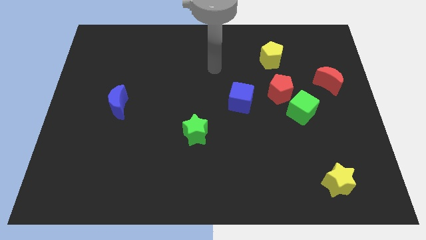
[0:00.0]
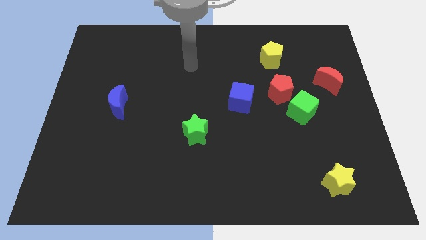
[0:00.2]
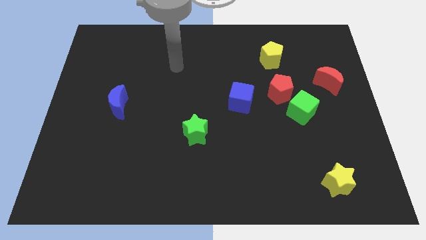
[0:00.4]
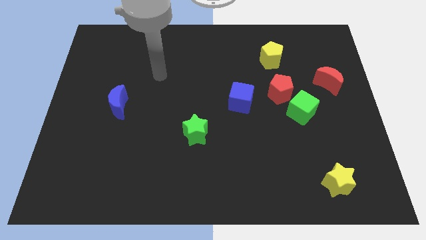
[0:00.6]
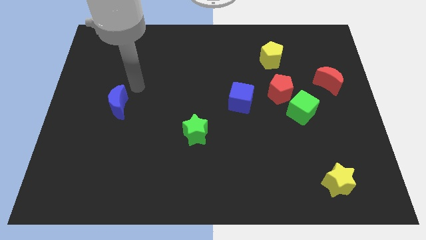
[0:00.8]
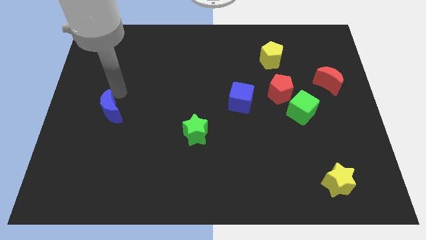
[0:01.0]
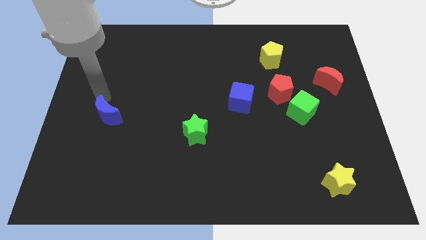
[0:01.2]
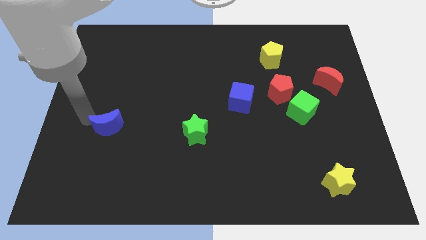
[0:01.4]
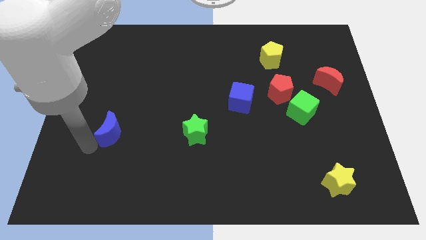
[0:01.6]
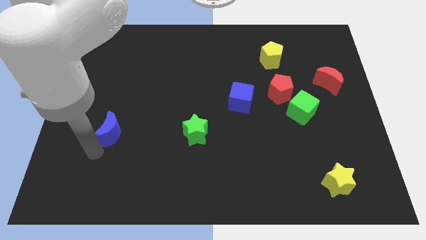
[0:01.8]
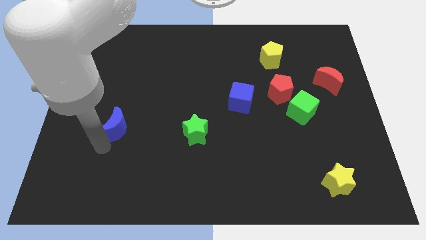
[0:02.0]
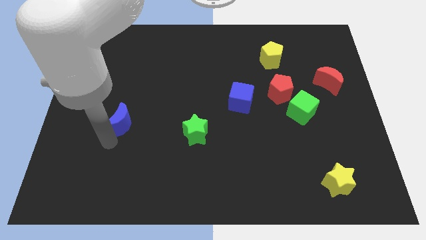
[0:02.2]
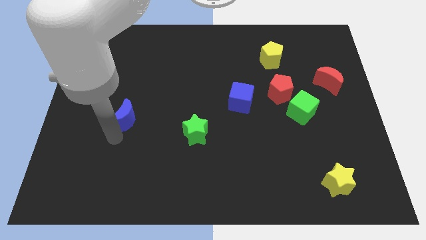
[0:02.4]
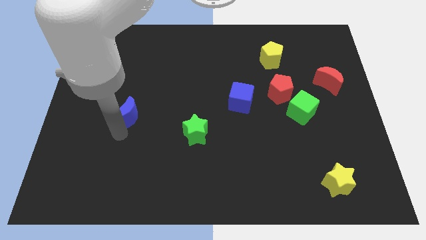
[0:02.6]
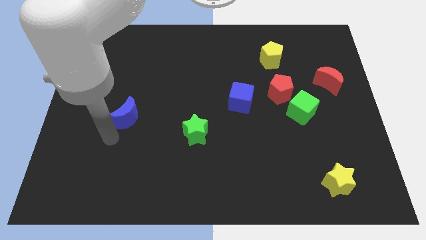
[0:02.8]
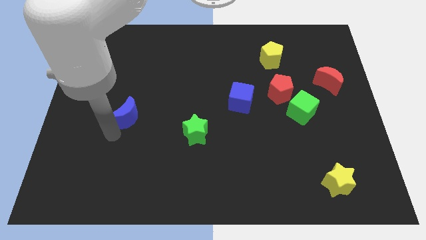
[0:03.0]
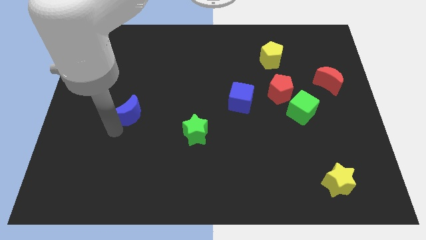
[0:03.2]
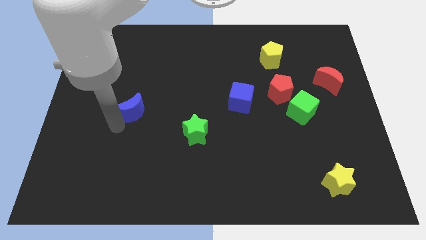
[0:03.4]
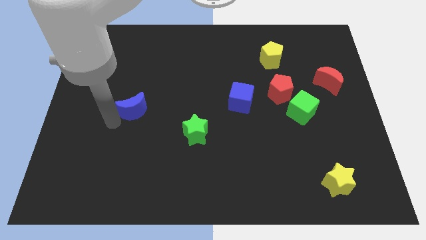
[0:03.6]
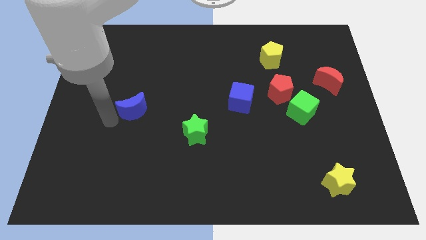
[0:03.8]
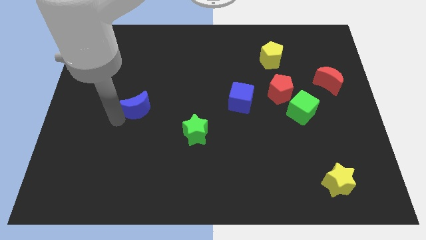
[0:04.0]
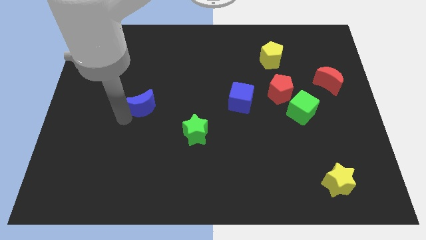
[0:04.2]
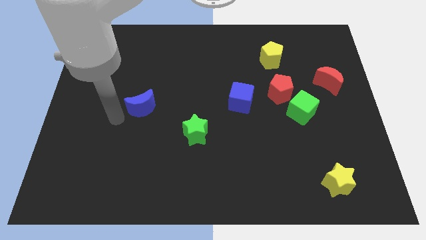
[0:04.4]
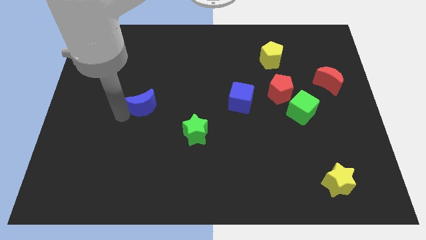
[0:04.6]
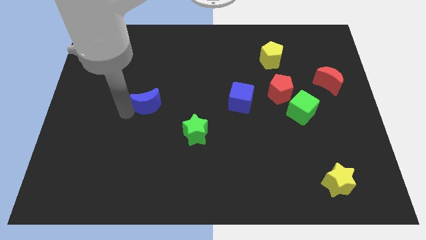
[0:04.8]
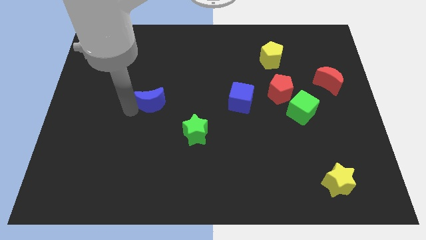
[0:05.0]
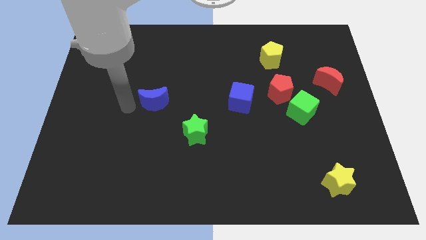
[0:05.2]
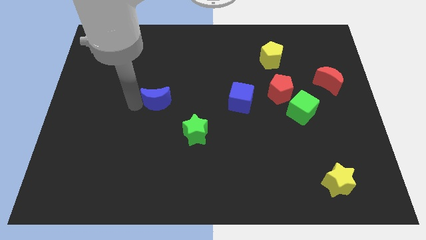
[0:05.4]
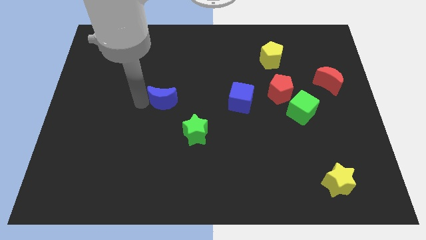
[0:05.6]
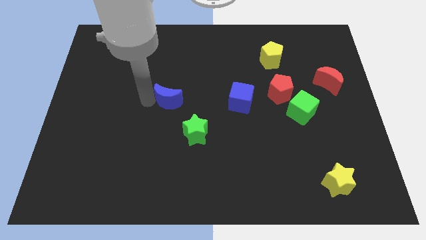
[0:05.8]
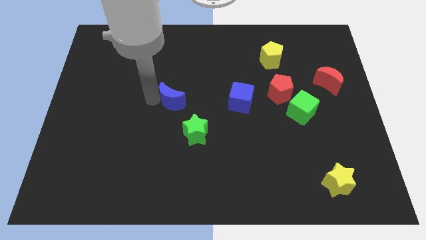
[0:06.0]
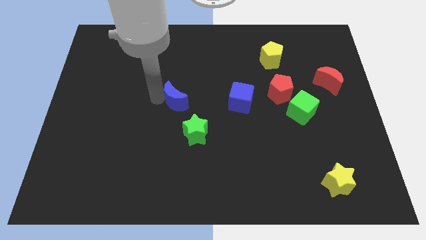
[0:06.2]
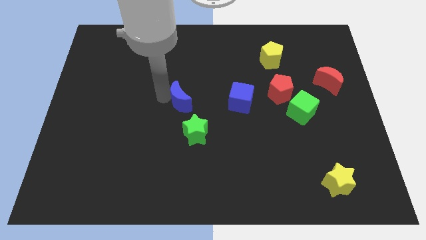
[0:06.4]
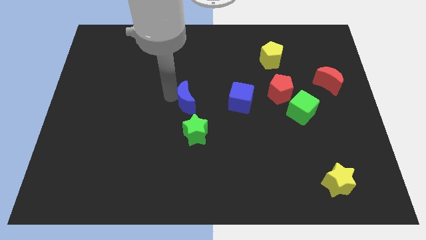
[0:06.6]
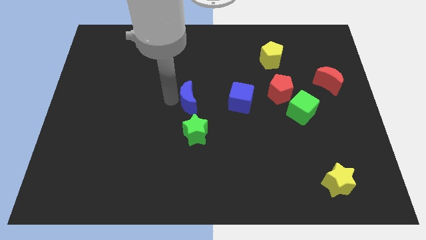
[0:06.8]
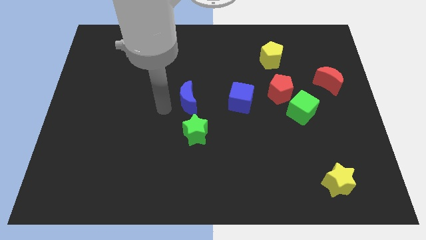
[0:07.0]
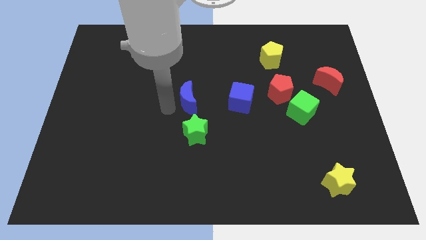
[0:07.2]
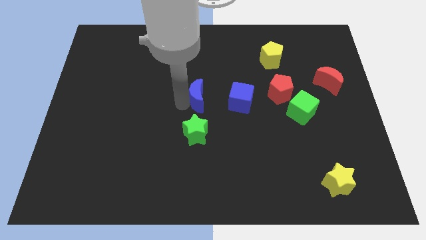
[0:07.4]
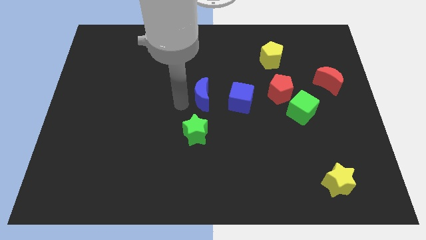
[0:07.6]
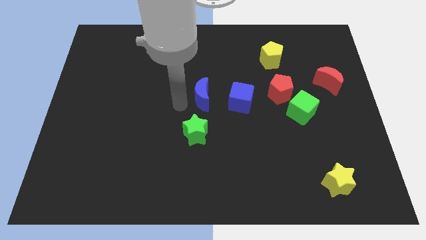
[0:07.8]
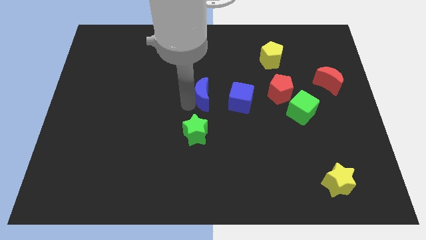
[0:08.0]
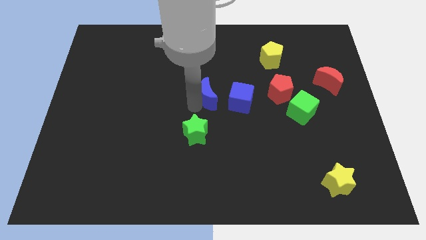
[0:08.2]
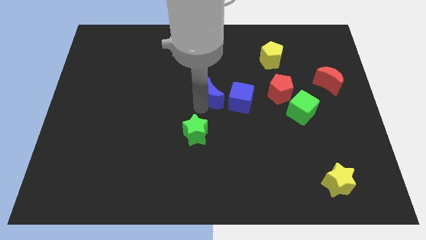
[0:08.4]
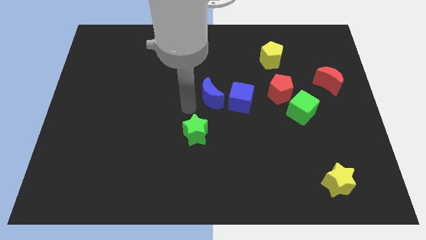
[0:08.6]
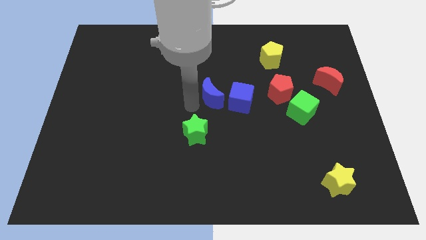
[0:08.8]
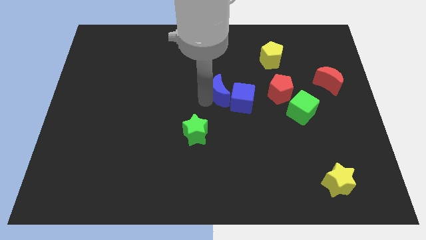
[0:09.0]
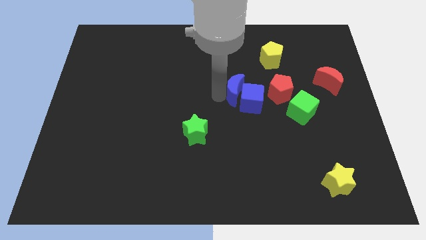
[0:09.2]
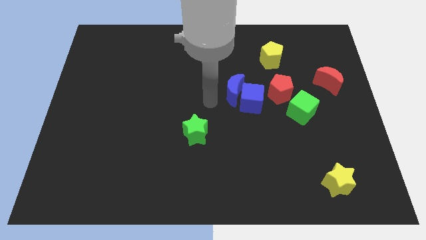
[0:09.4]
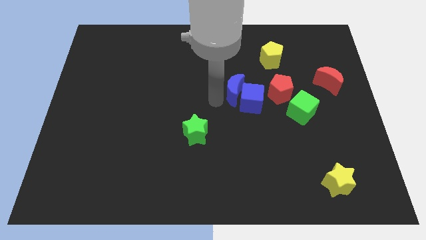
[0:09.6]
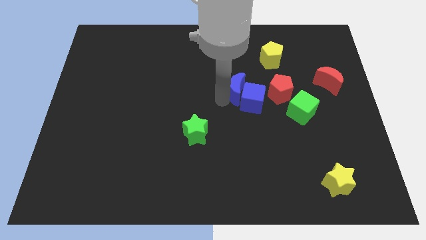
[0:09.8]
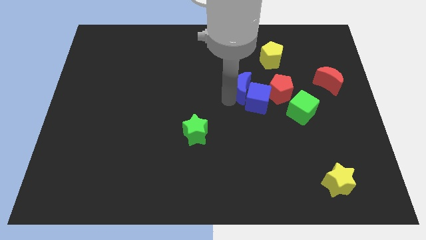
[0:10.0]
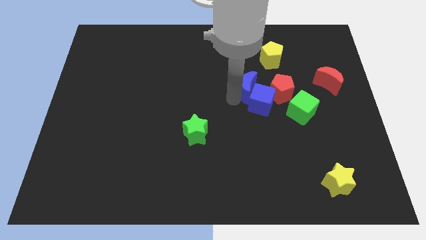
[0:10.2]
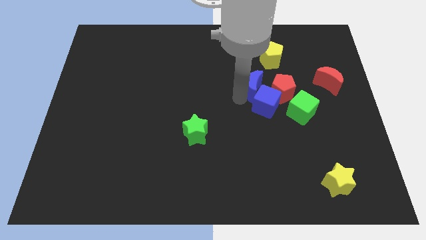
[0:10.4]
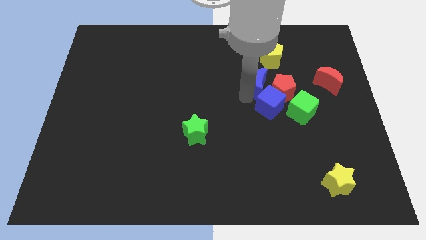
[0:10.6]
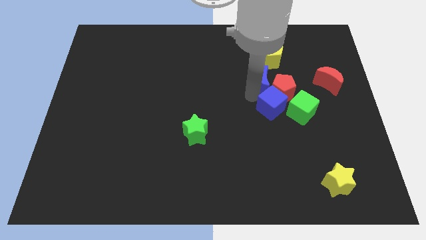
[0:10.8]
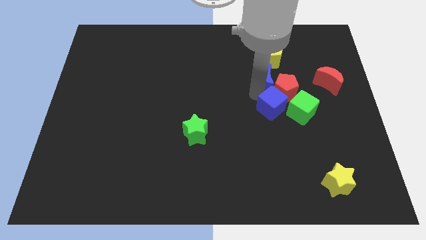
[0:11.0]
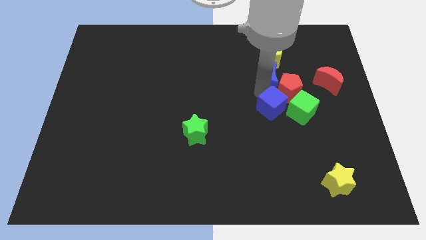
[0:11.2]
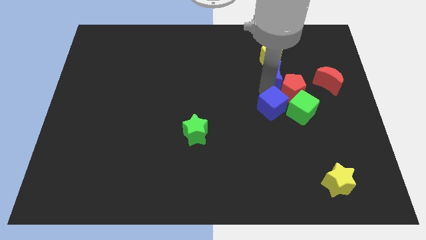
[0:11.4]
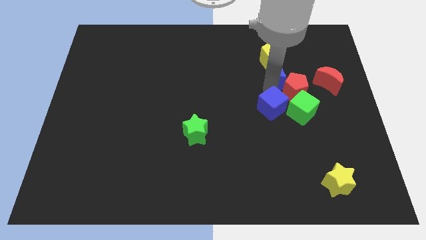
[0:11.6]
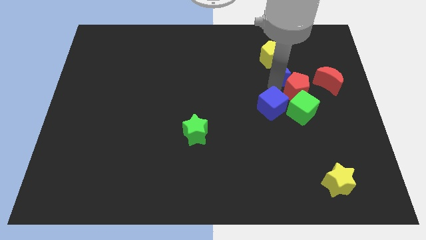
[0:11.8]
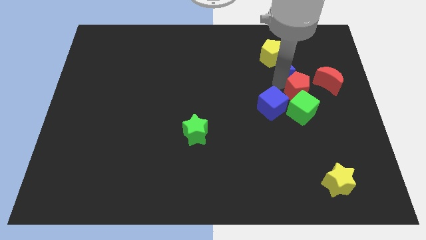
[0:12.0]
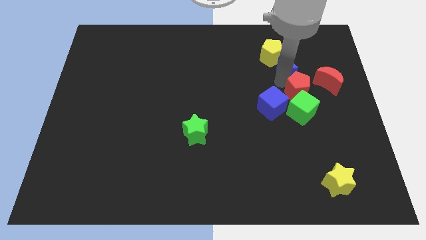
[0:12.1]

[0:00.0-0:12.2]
put the blue moon to the top left of the red moon

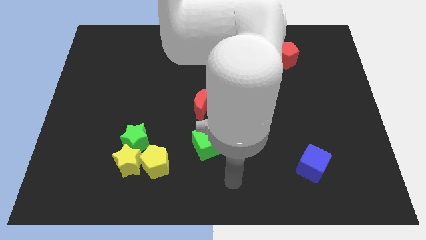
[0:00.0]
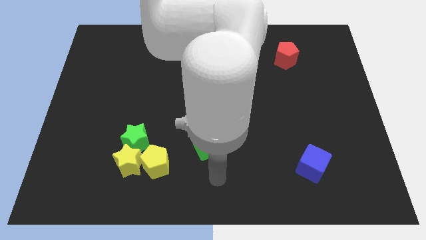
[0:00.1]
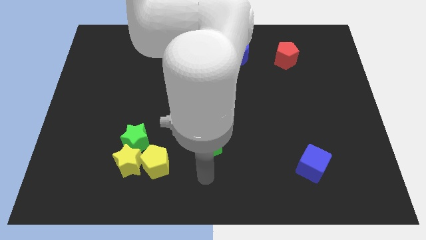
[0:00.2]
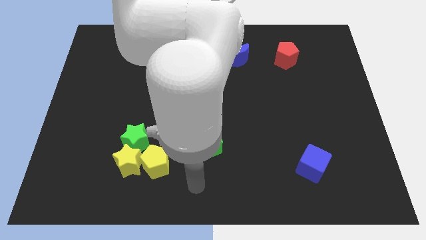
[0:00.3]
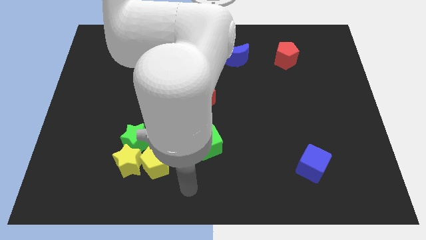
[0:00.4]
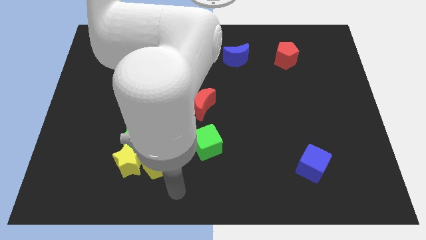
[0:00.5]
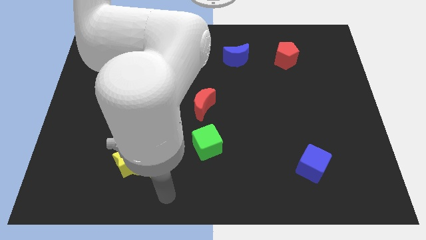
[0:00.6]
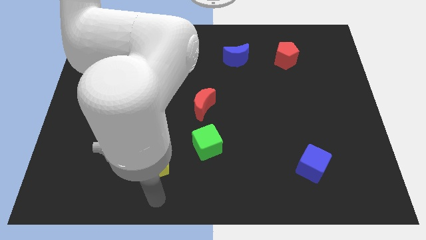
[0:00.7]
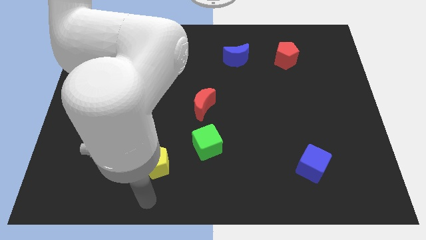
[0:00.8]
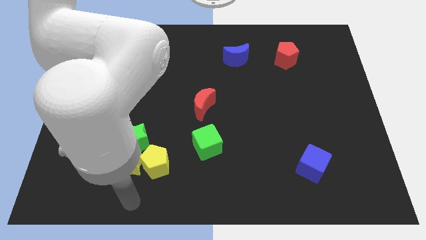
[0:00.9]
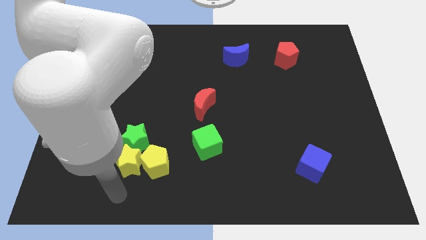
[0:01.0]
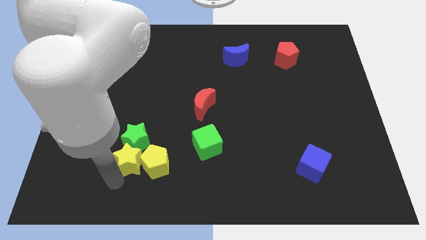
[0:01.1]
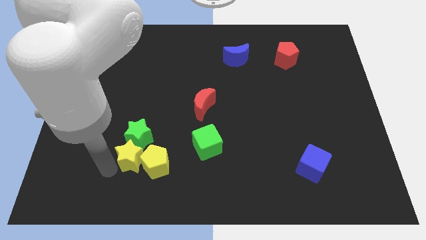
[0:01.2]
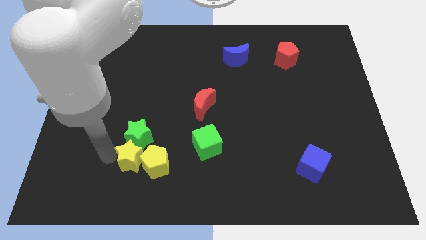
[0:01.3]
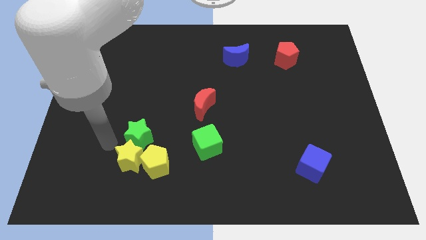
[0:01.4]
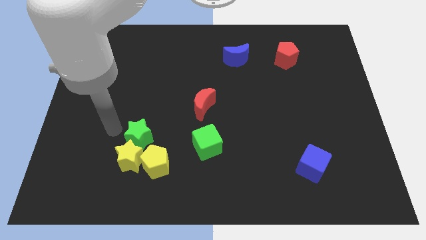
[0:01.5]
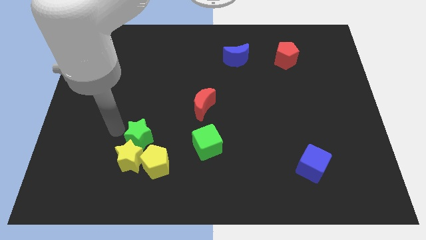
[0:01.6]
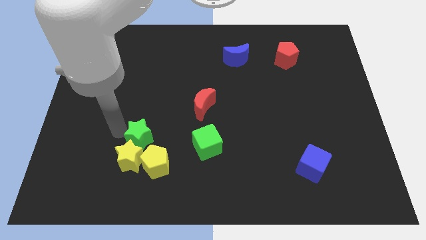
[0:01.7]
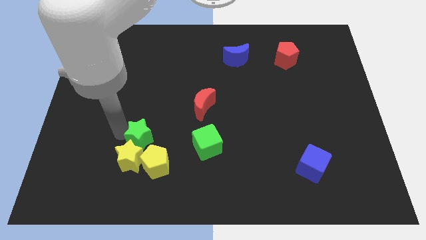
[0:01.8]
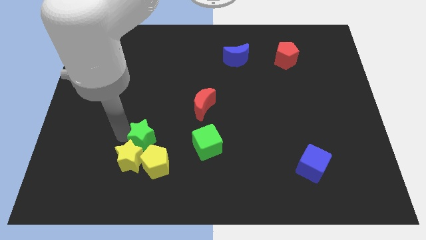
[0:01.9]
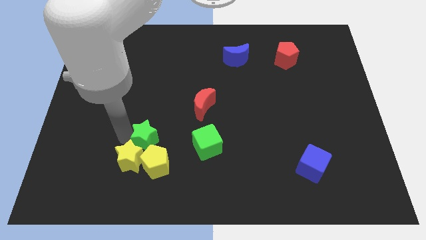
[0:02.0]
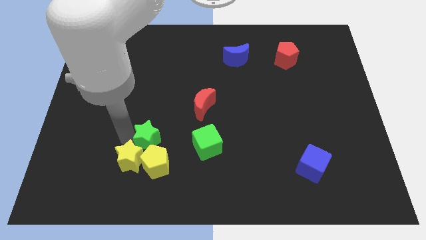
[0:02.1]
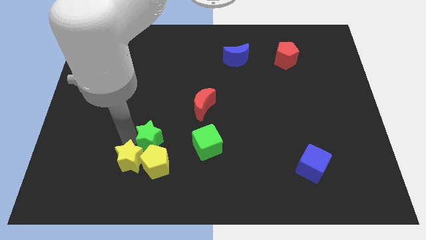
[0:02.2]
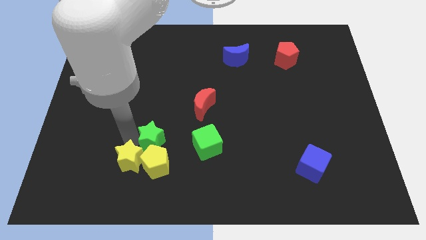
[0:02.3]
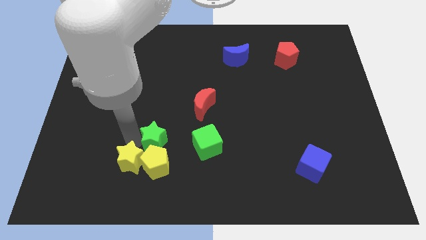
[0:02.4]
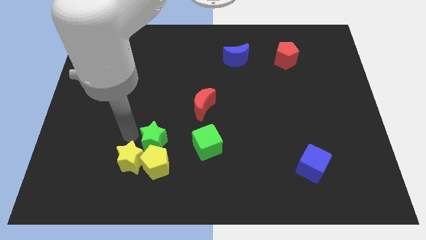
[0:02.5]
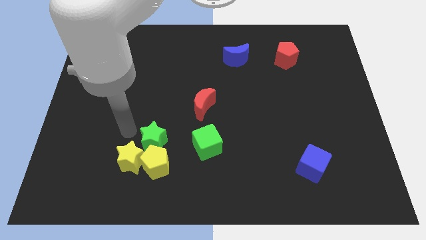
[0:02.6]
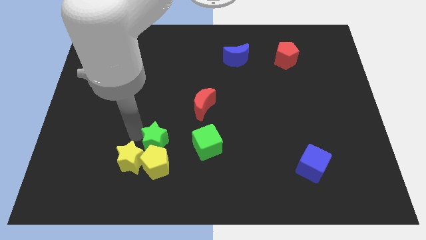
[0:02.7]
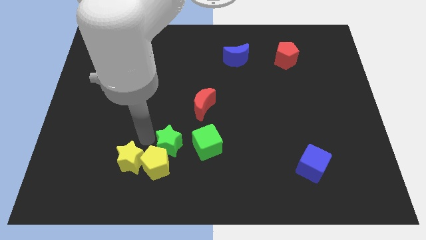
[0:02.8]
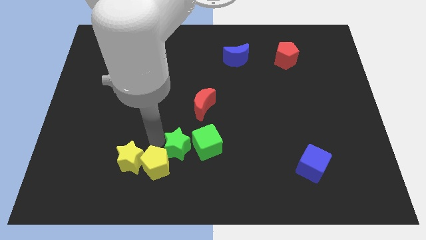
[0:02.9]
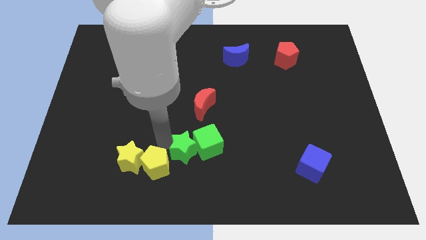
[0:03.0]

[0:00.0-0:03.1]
put the green star below the red moon
